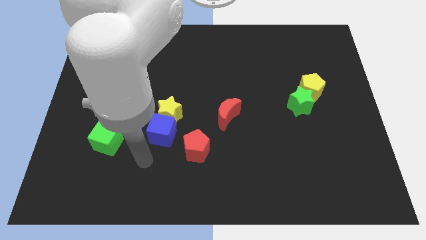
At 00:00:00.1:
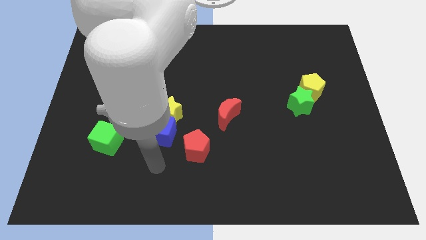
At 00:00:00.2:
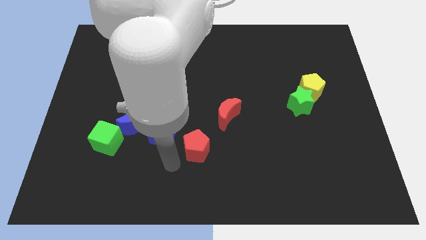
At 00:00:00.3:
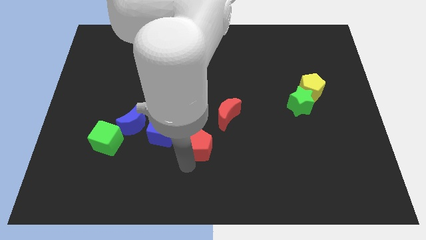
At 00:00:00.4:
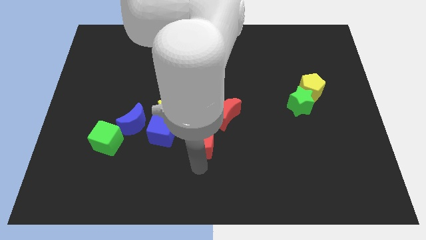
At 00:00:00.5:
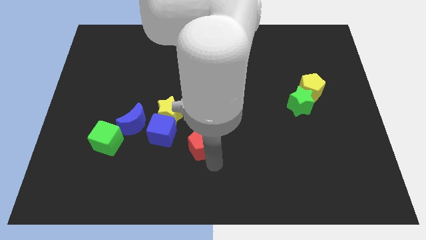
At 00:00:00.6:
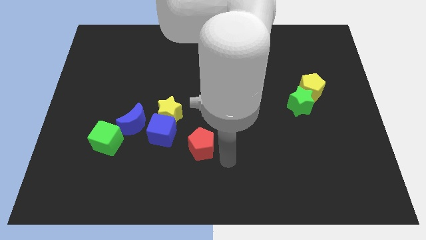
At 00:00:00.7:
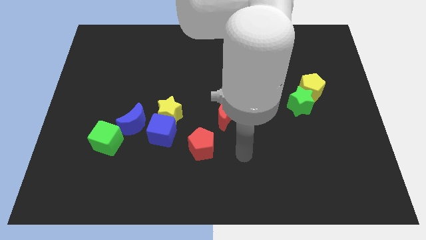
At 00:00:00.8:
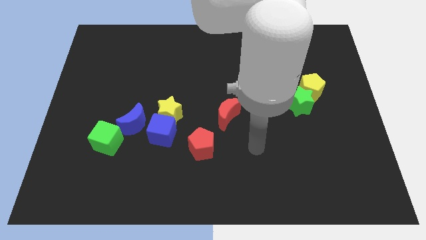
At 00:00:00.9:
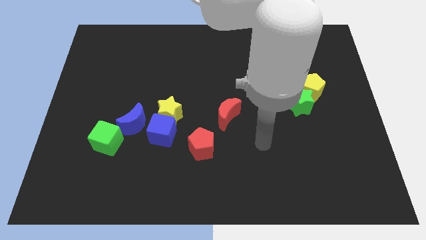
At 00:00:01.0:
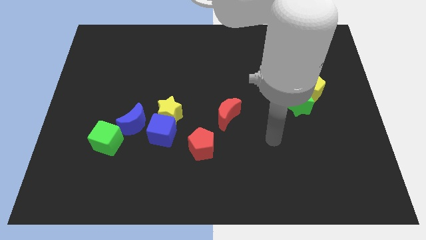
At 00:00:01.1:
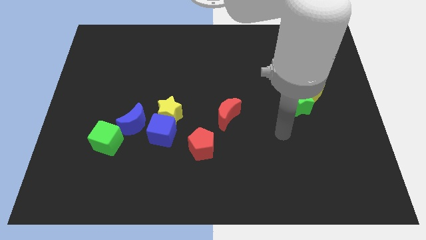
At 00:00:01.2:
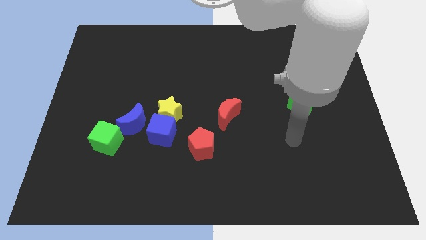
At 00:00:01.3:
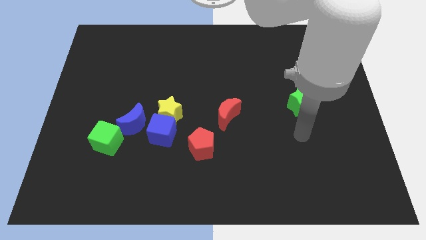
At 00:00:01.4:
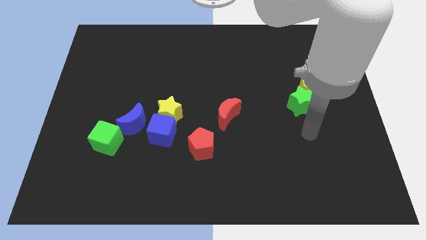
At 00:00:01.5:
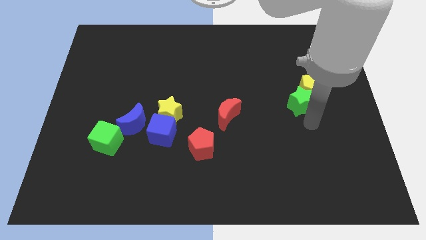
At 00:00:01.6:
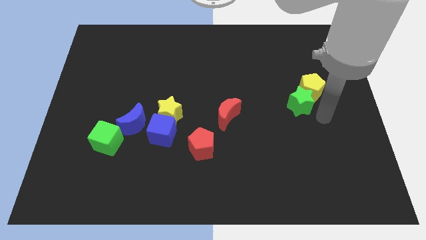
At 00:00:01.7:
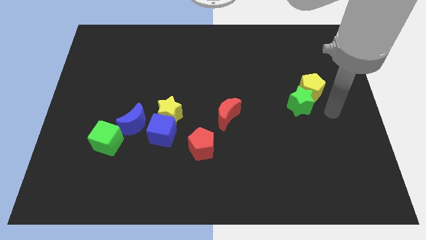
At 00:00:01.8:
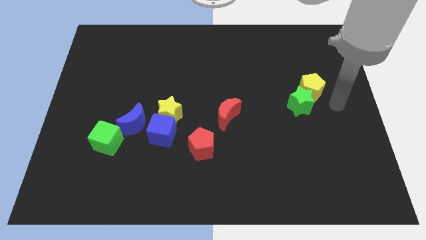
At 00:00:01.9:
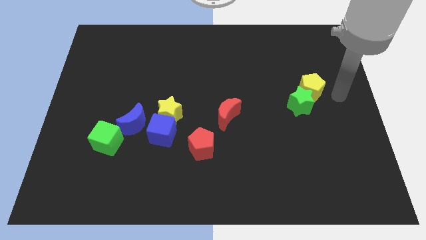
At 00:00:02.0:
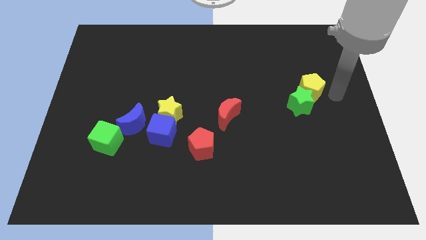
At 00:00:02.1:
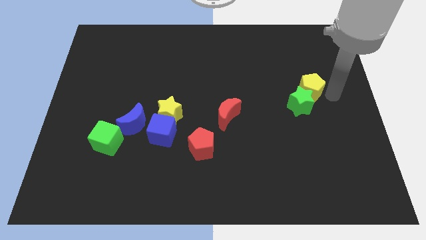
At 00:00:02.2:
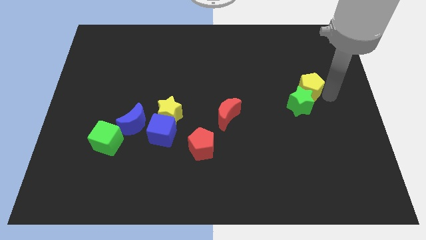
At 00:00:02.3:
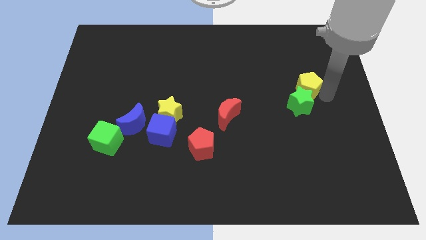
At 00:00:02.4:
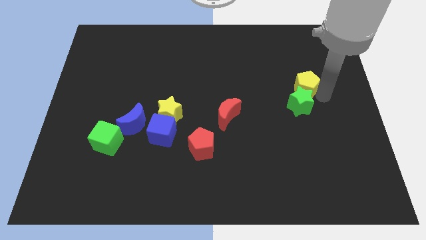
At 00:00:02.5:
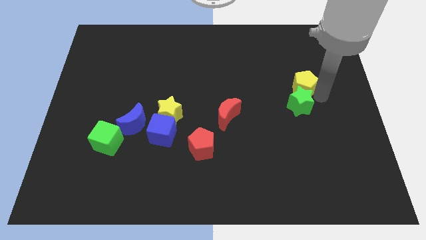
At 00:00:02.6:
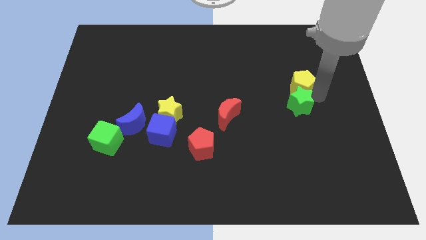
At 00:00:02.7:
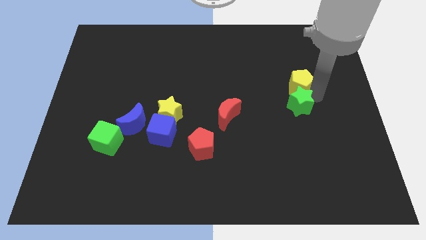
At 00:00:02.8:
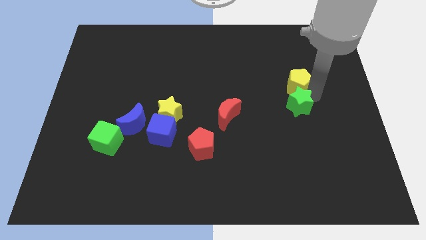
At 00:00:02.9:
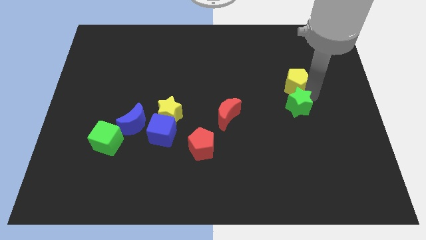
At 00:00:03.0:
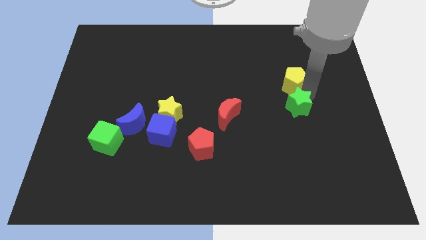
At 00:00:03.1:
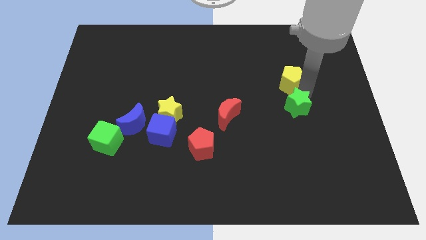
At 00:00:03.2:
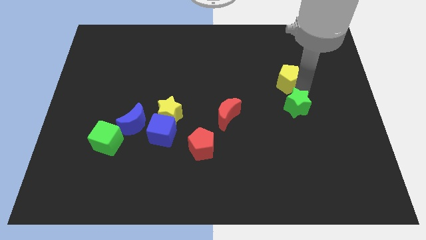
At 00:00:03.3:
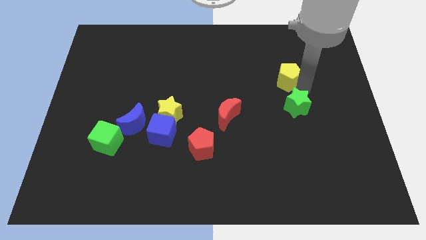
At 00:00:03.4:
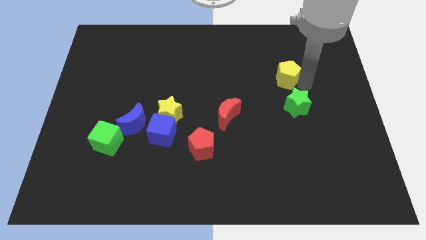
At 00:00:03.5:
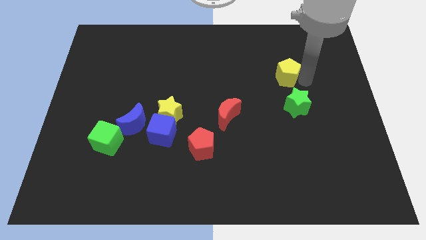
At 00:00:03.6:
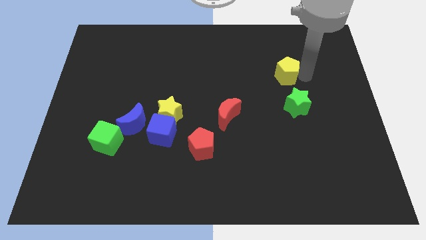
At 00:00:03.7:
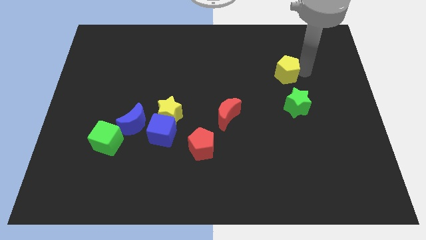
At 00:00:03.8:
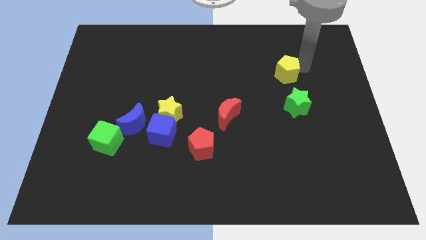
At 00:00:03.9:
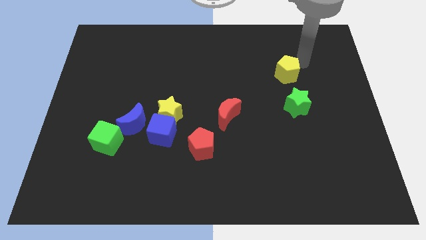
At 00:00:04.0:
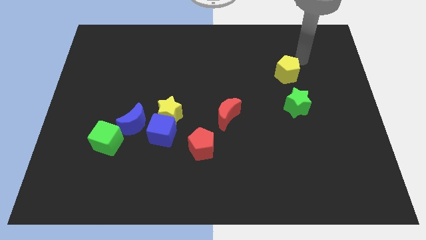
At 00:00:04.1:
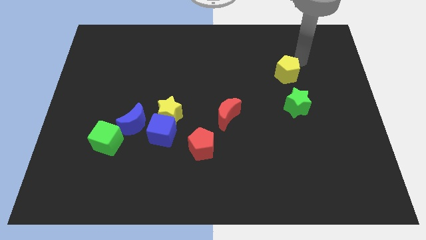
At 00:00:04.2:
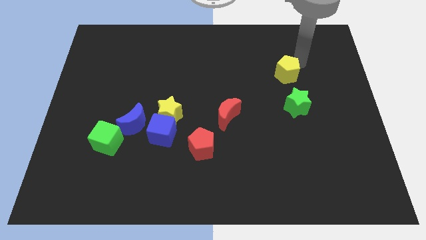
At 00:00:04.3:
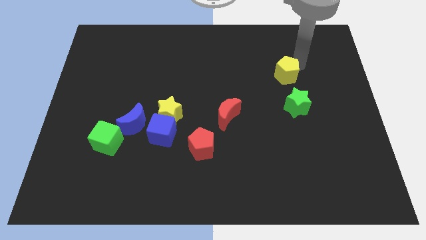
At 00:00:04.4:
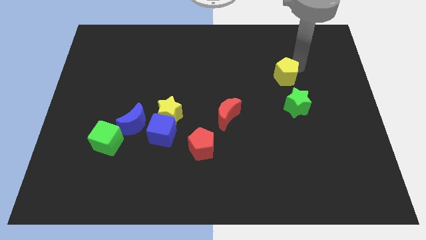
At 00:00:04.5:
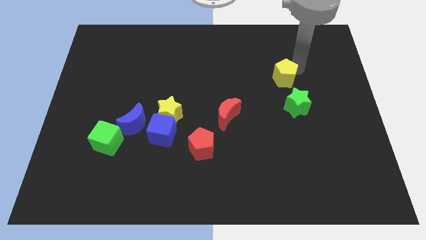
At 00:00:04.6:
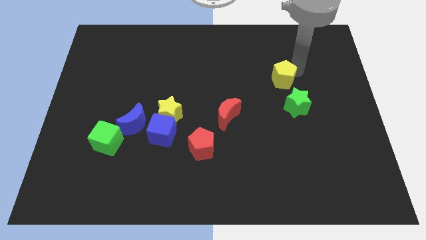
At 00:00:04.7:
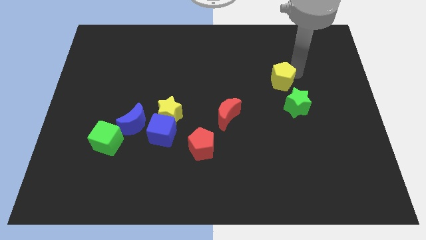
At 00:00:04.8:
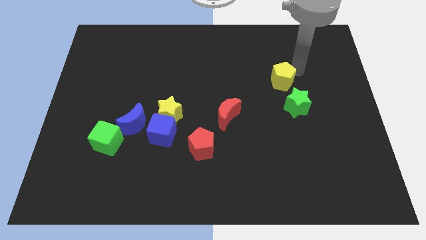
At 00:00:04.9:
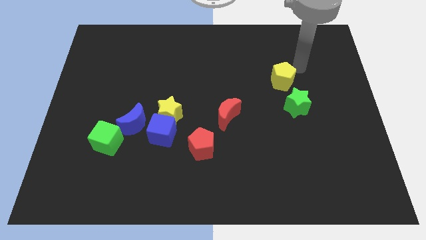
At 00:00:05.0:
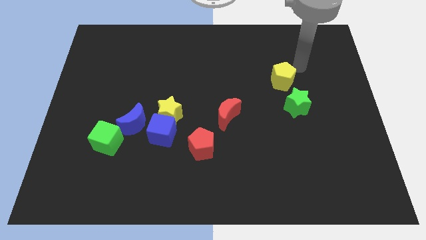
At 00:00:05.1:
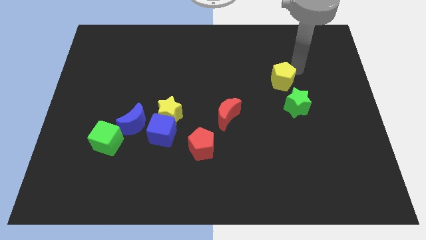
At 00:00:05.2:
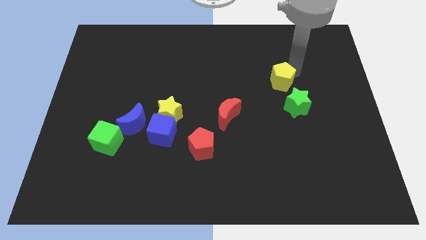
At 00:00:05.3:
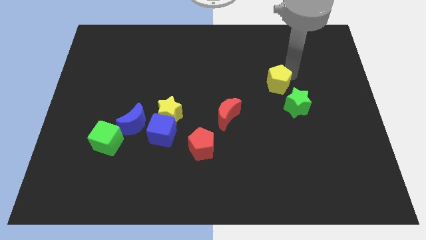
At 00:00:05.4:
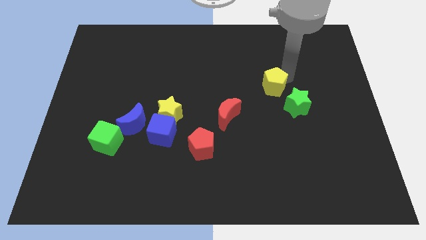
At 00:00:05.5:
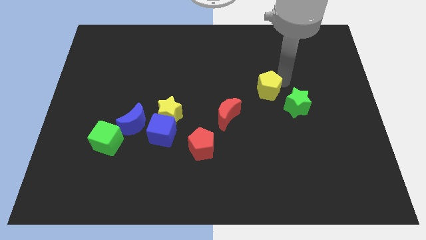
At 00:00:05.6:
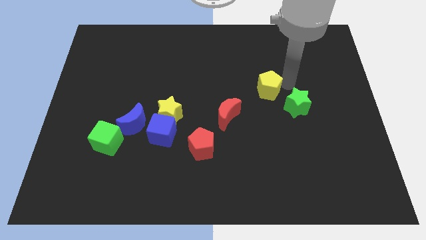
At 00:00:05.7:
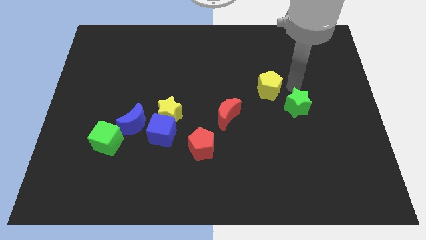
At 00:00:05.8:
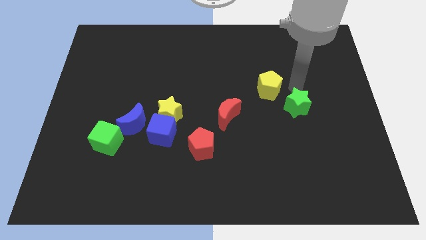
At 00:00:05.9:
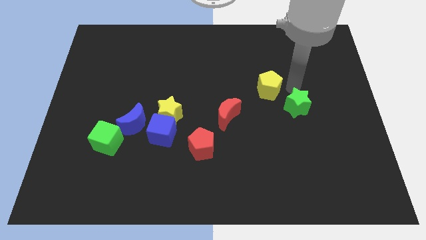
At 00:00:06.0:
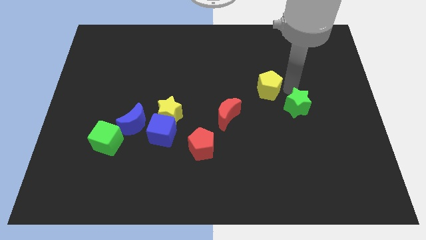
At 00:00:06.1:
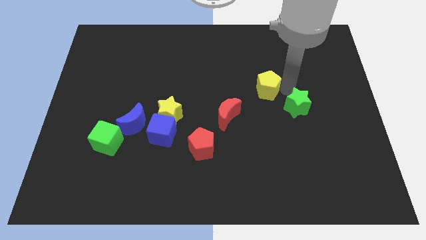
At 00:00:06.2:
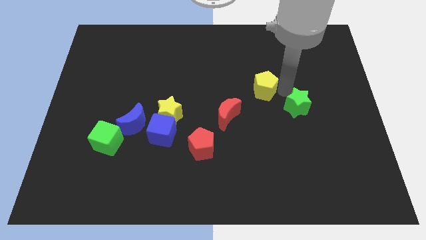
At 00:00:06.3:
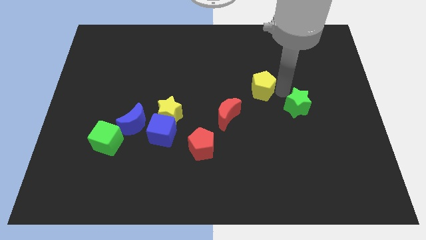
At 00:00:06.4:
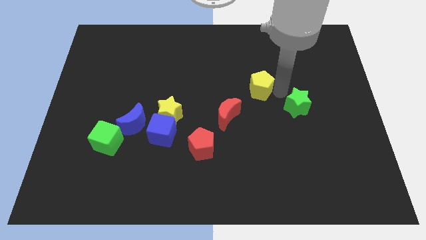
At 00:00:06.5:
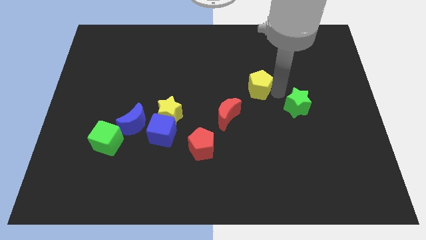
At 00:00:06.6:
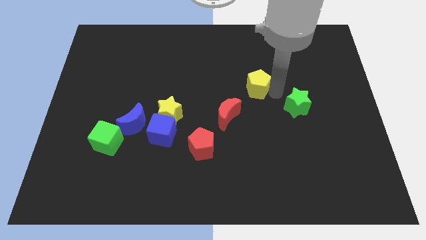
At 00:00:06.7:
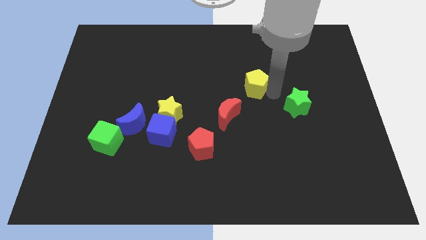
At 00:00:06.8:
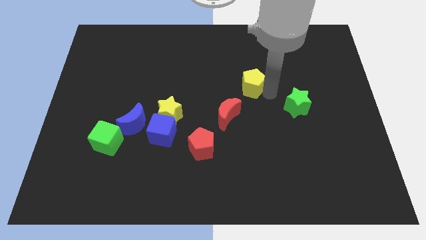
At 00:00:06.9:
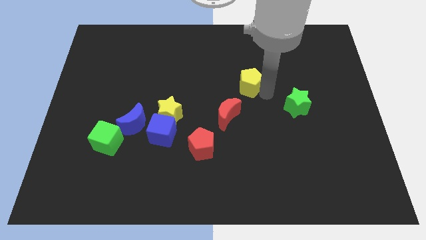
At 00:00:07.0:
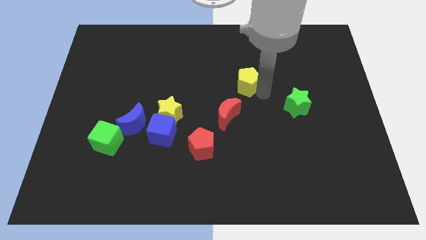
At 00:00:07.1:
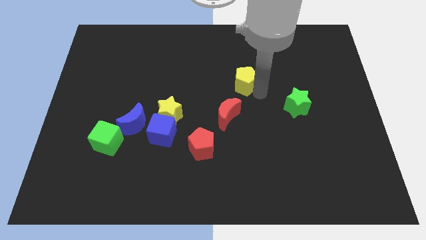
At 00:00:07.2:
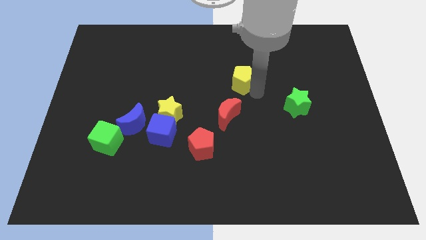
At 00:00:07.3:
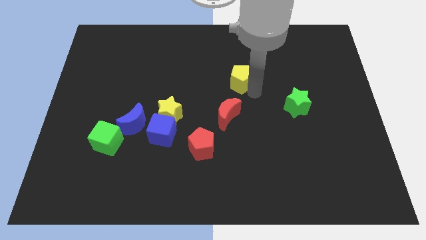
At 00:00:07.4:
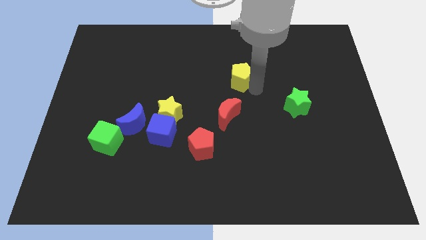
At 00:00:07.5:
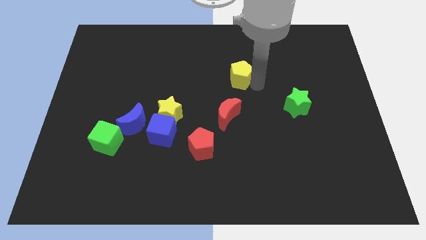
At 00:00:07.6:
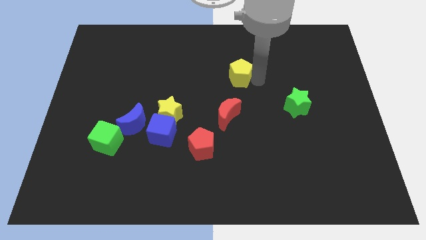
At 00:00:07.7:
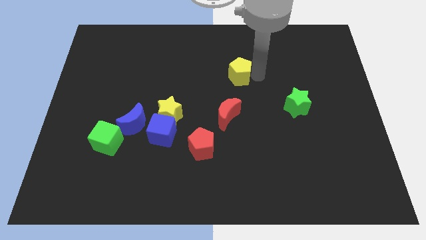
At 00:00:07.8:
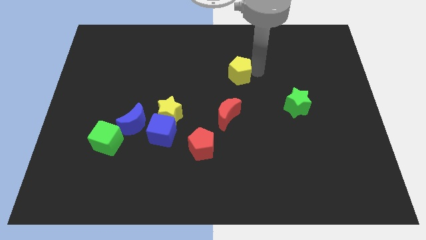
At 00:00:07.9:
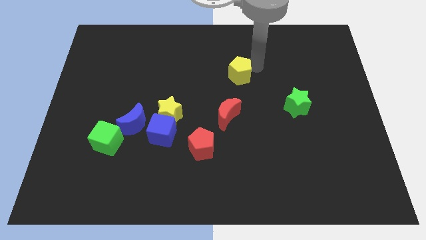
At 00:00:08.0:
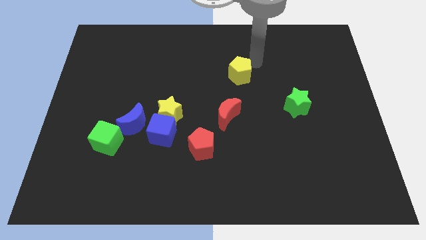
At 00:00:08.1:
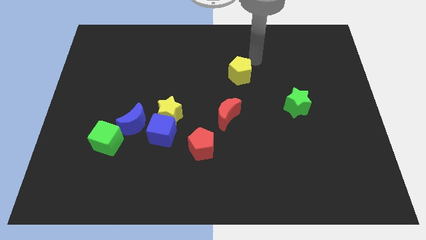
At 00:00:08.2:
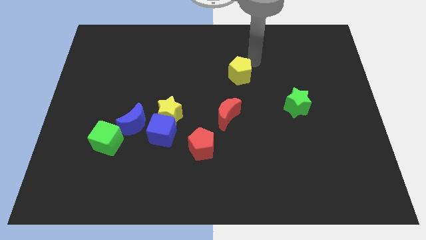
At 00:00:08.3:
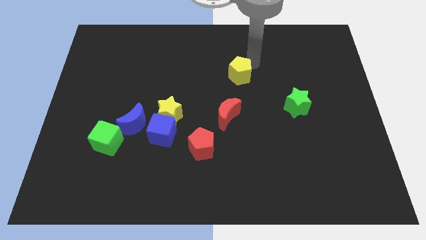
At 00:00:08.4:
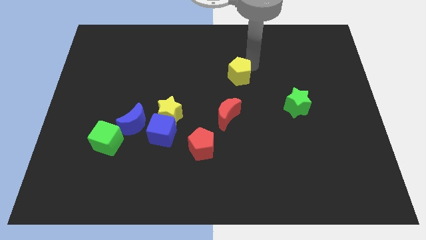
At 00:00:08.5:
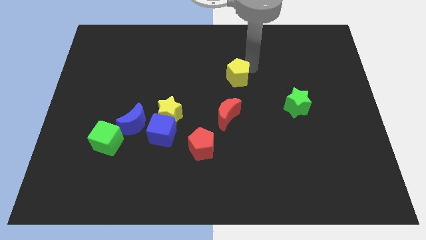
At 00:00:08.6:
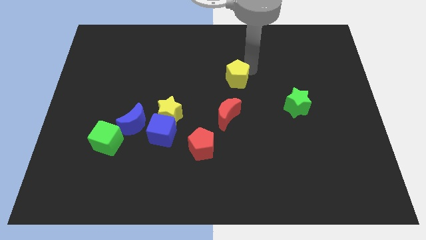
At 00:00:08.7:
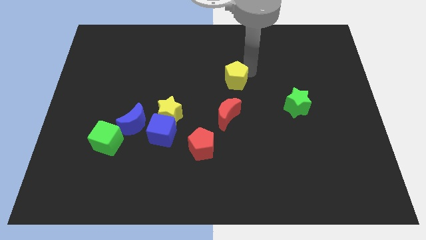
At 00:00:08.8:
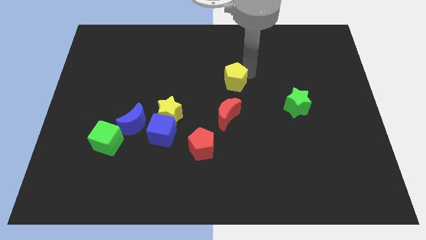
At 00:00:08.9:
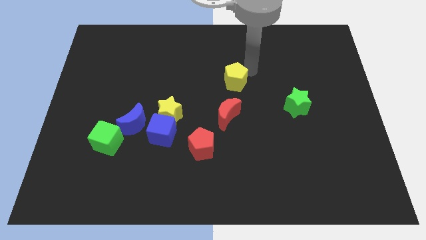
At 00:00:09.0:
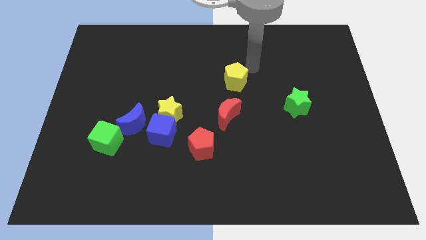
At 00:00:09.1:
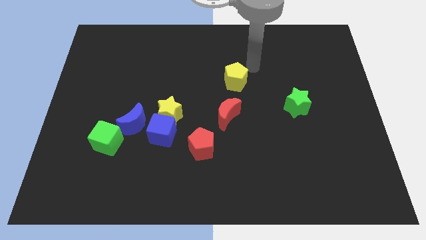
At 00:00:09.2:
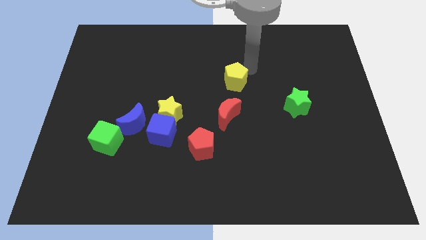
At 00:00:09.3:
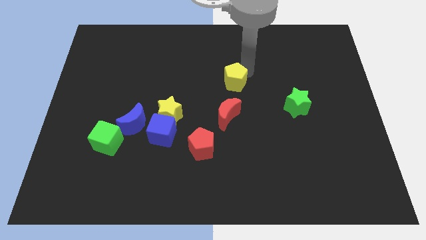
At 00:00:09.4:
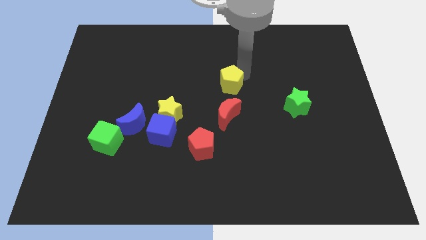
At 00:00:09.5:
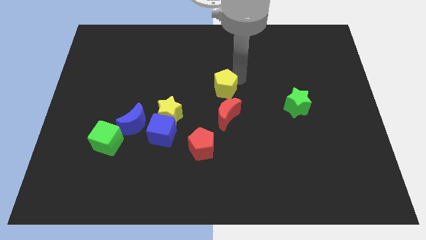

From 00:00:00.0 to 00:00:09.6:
slide the yellow pentagon left
